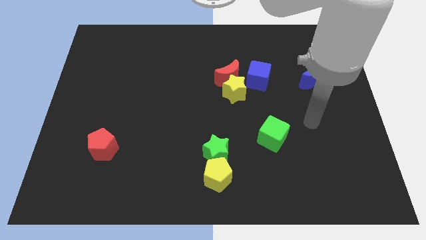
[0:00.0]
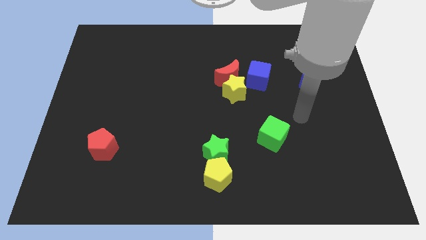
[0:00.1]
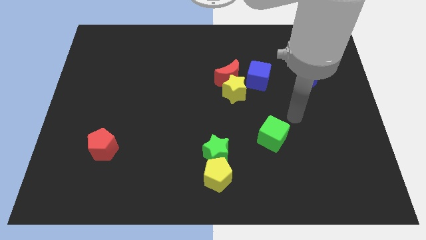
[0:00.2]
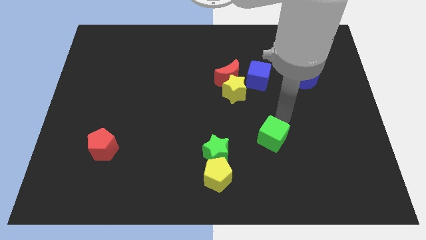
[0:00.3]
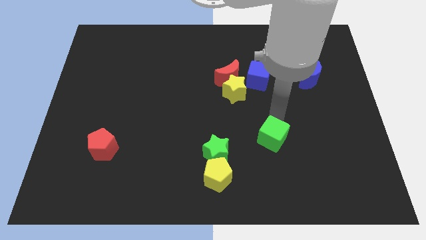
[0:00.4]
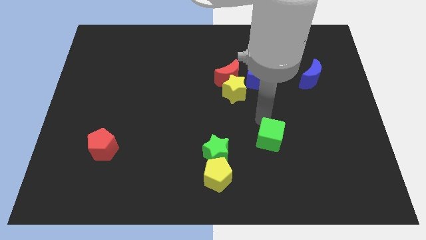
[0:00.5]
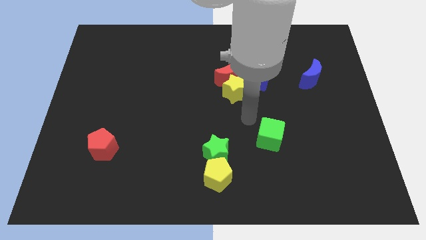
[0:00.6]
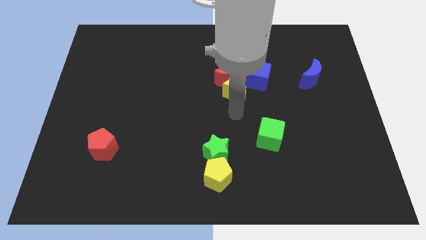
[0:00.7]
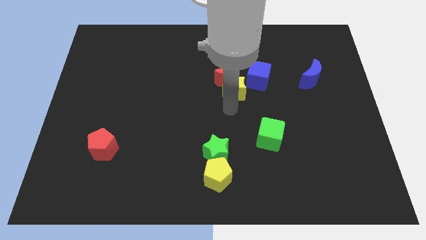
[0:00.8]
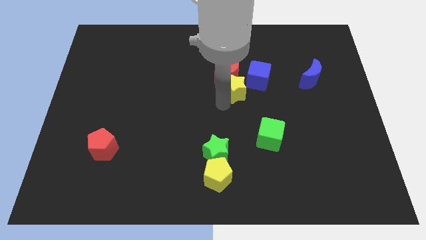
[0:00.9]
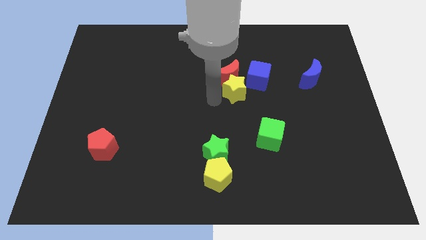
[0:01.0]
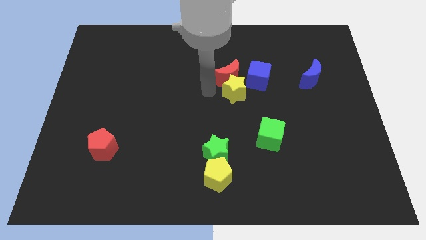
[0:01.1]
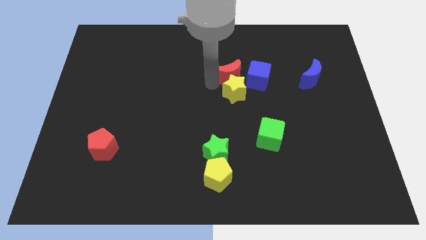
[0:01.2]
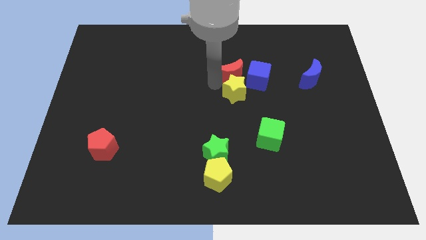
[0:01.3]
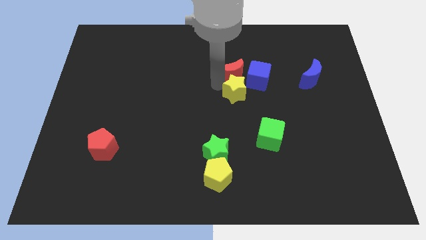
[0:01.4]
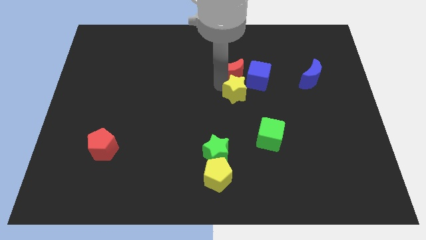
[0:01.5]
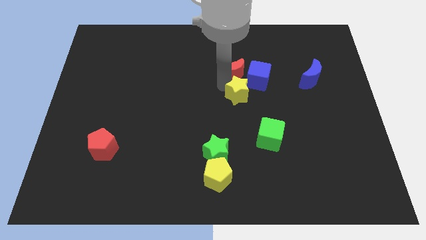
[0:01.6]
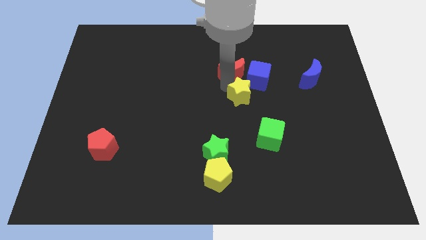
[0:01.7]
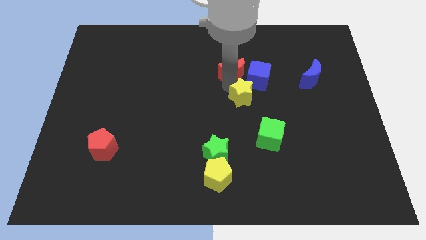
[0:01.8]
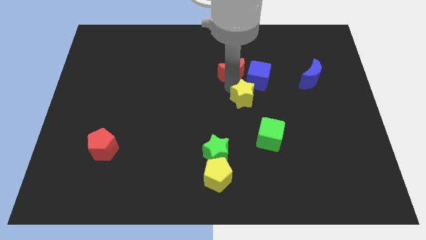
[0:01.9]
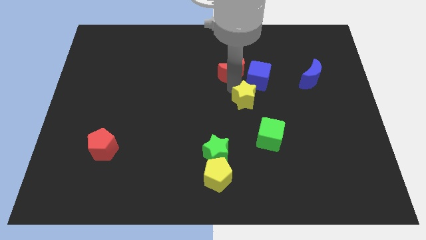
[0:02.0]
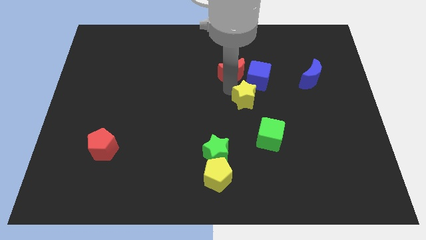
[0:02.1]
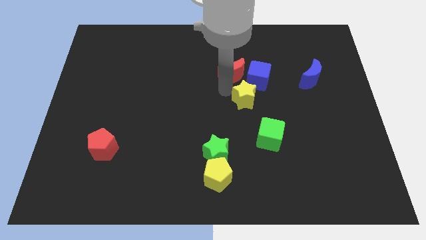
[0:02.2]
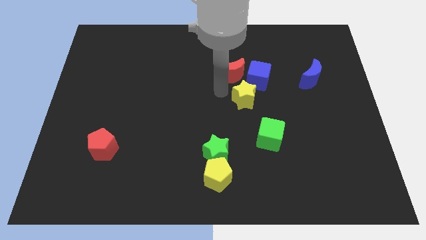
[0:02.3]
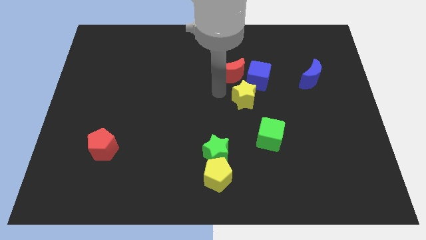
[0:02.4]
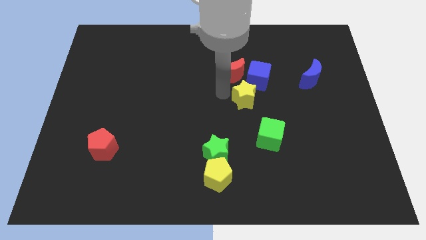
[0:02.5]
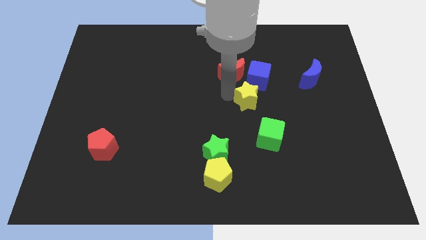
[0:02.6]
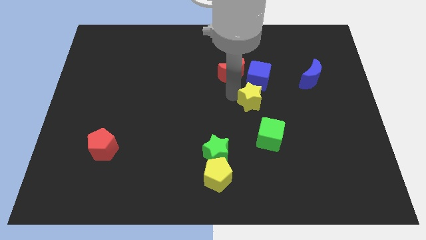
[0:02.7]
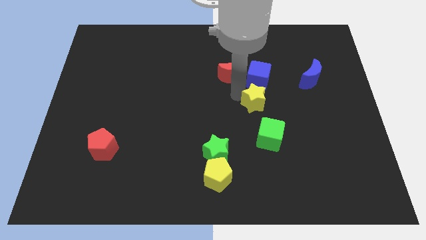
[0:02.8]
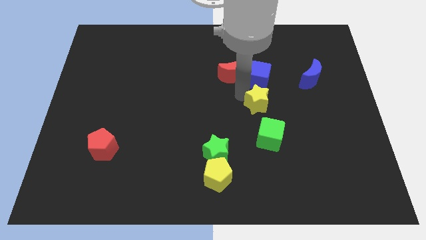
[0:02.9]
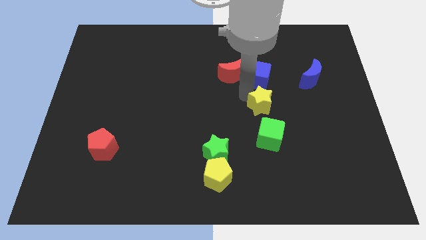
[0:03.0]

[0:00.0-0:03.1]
push the yellow star downwards and right diagonally slightly

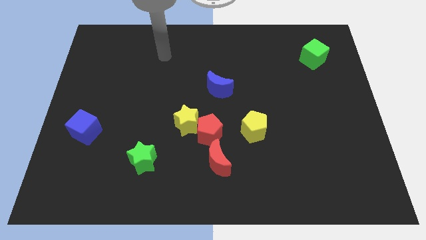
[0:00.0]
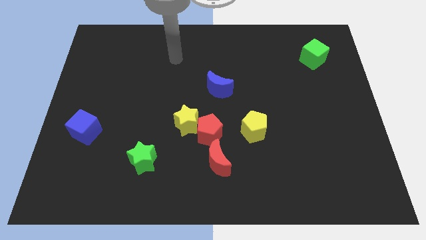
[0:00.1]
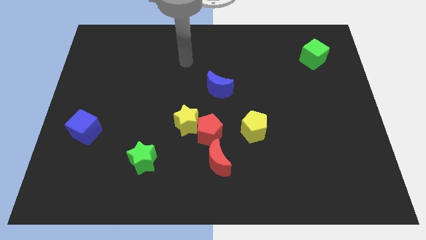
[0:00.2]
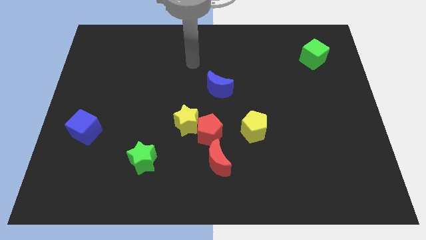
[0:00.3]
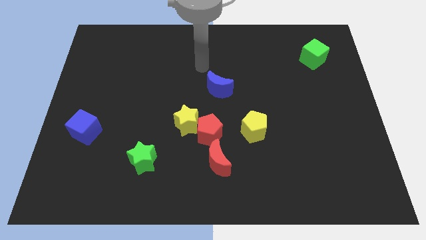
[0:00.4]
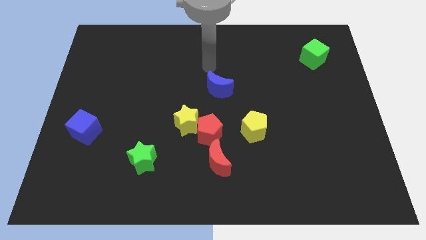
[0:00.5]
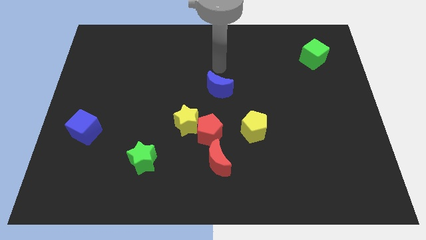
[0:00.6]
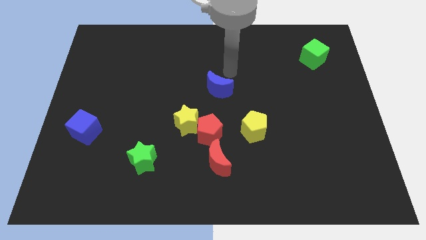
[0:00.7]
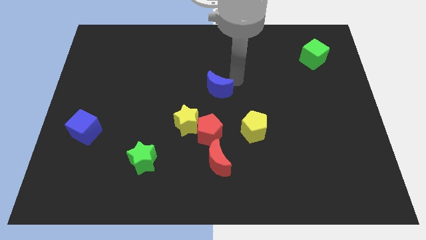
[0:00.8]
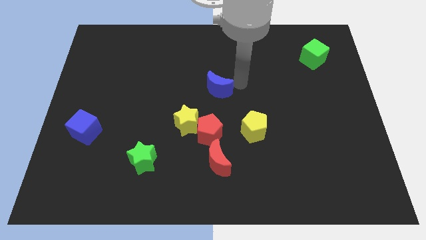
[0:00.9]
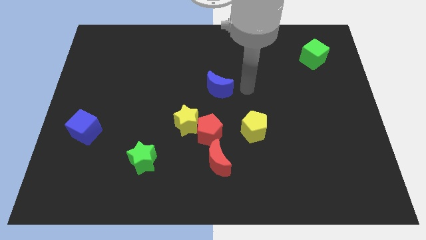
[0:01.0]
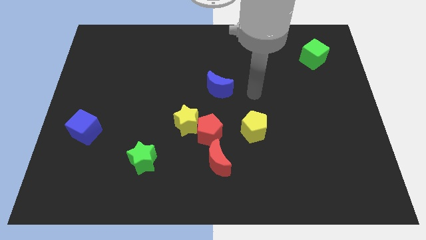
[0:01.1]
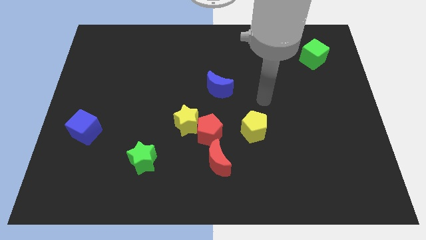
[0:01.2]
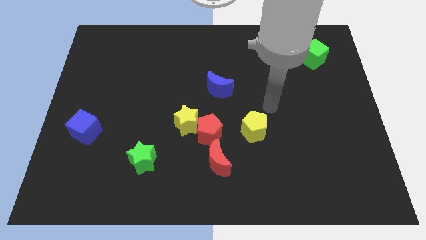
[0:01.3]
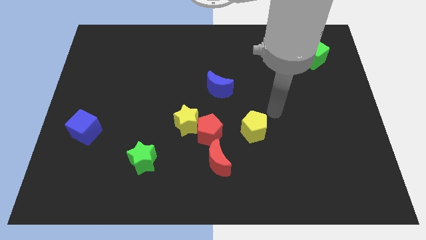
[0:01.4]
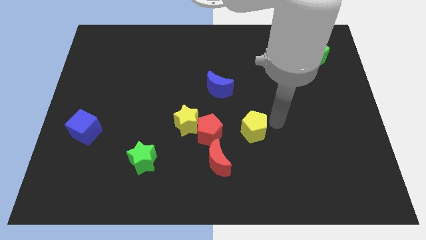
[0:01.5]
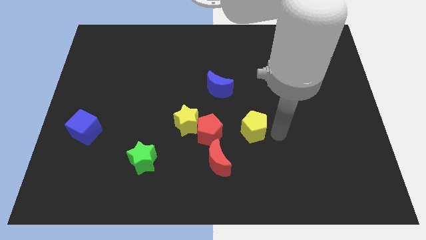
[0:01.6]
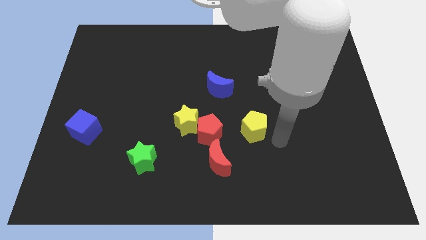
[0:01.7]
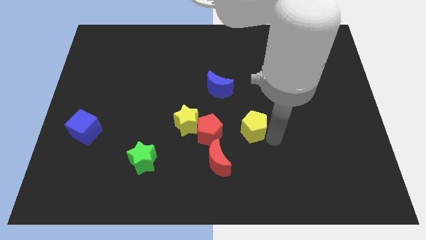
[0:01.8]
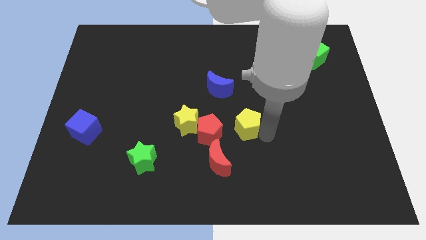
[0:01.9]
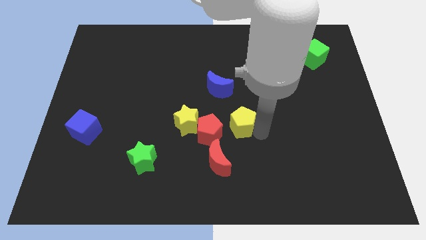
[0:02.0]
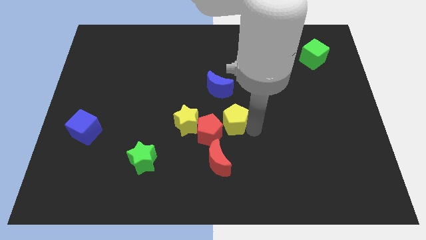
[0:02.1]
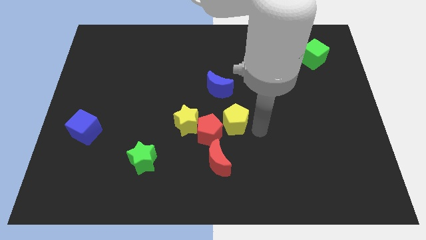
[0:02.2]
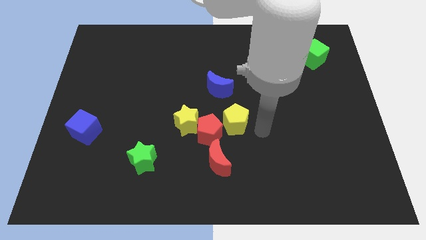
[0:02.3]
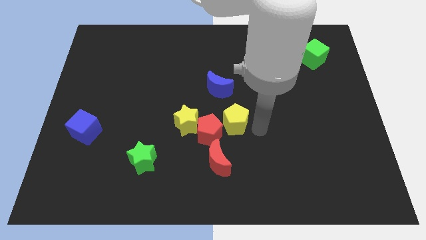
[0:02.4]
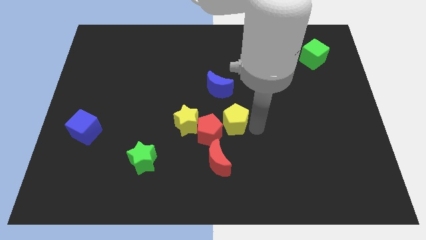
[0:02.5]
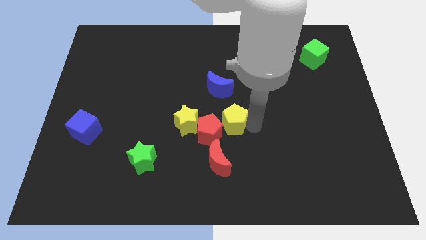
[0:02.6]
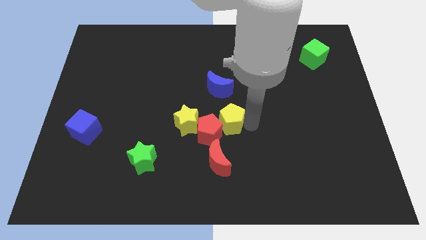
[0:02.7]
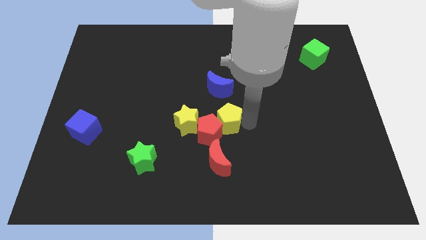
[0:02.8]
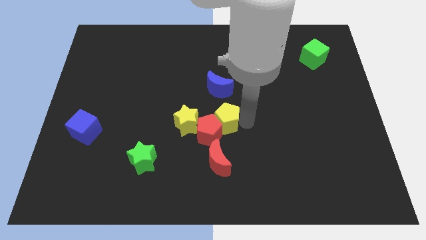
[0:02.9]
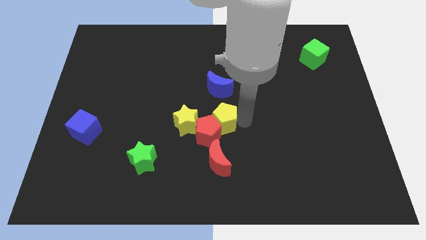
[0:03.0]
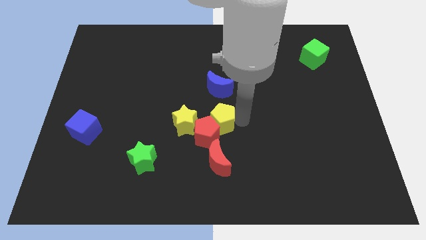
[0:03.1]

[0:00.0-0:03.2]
slightly move the yellow pentagon left

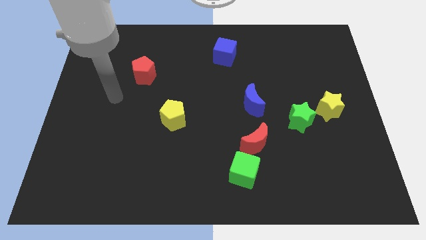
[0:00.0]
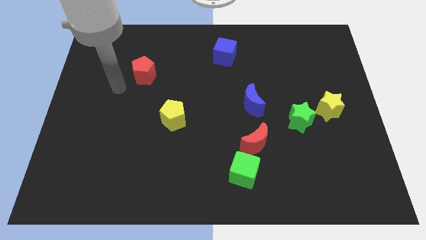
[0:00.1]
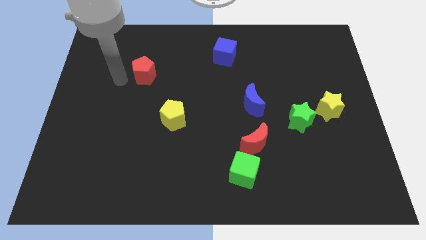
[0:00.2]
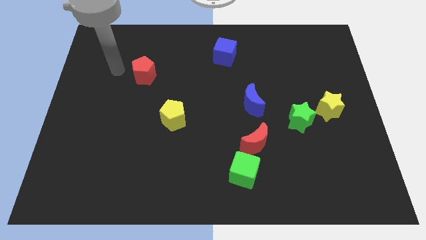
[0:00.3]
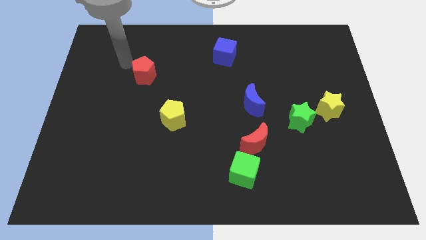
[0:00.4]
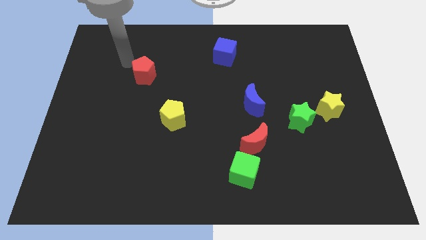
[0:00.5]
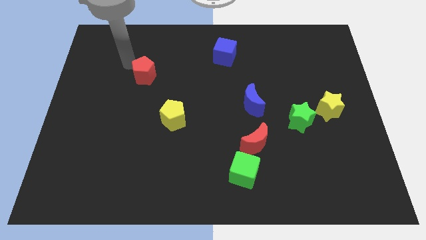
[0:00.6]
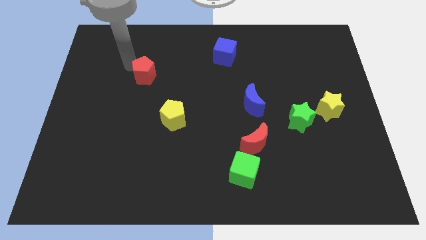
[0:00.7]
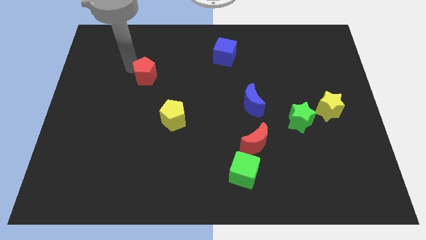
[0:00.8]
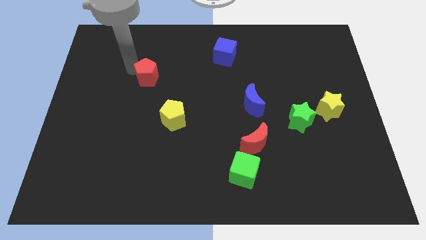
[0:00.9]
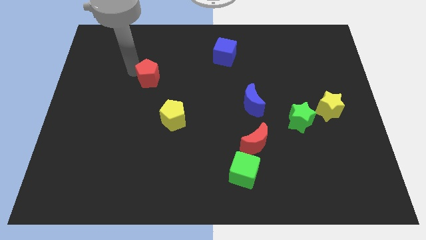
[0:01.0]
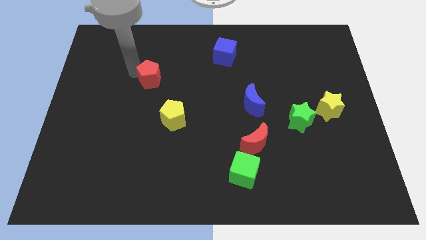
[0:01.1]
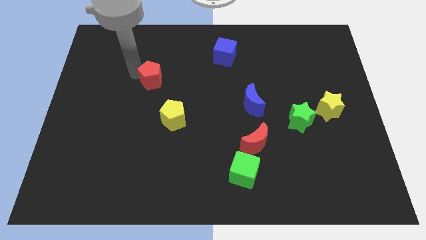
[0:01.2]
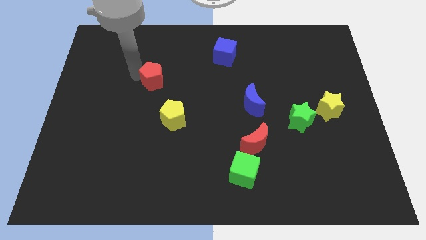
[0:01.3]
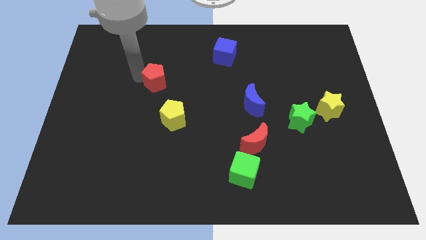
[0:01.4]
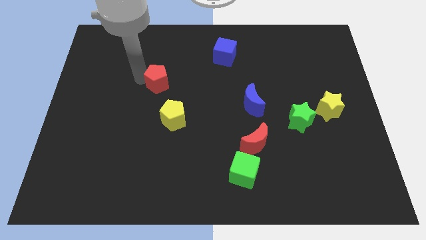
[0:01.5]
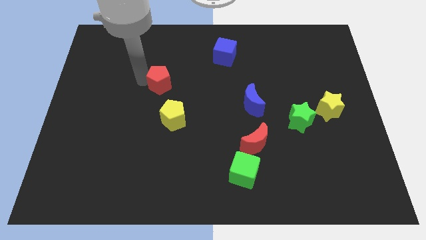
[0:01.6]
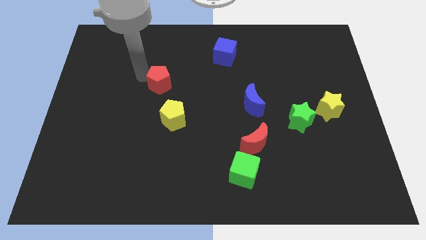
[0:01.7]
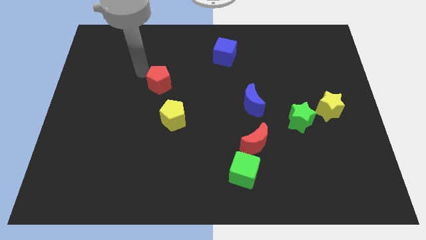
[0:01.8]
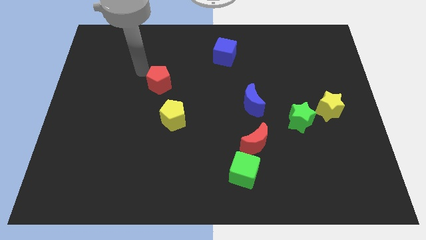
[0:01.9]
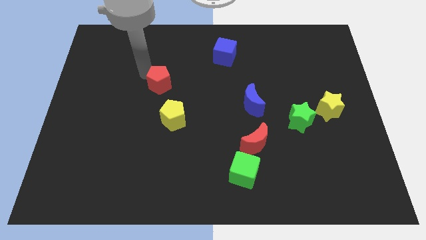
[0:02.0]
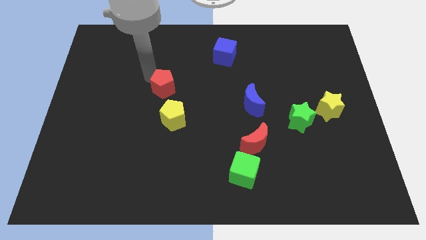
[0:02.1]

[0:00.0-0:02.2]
push the red pentagon slightly down and right diagonally
